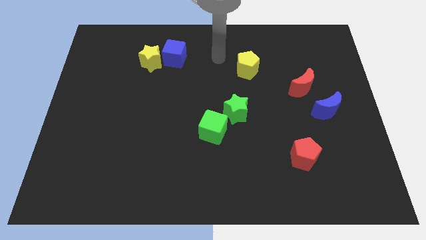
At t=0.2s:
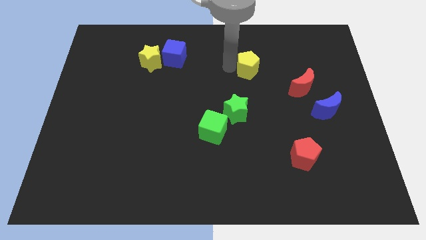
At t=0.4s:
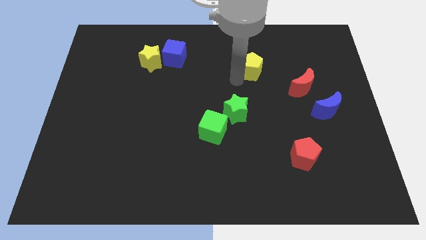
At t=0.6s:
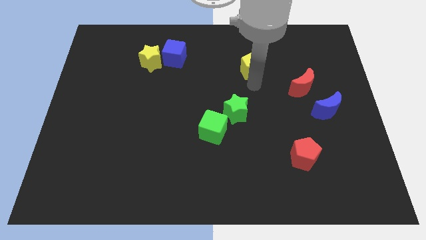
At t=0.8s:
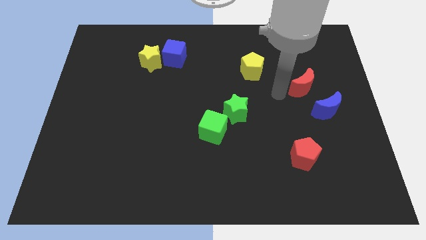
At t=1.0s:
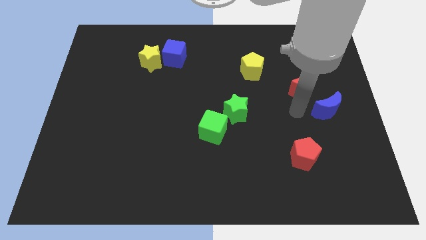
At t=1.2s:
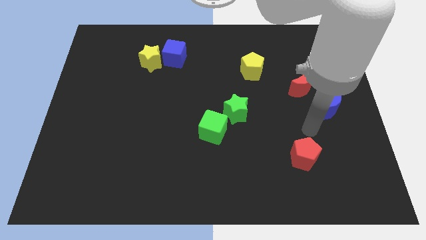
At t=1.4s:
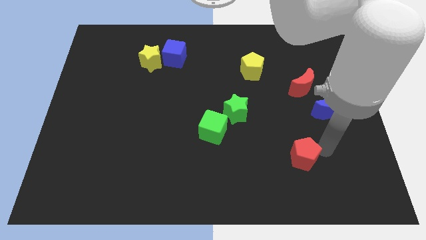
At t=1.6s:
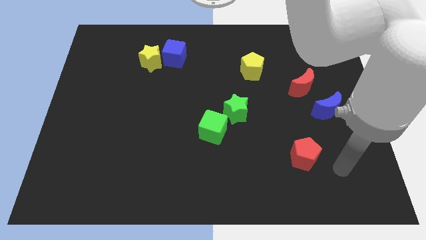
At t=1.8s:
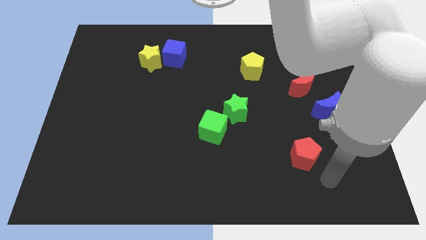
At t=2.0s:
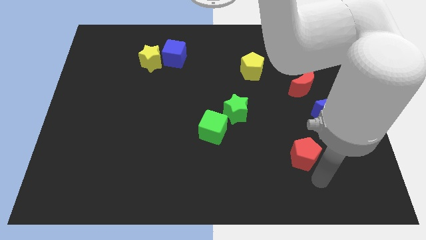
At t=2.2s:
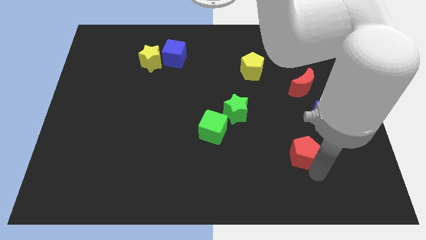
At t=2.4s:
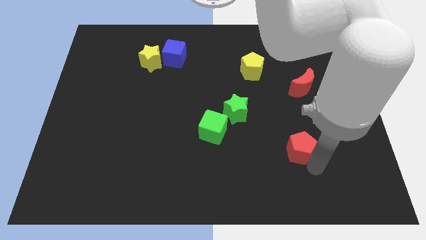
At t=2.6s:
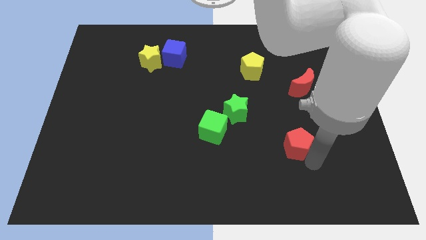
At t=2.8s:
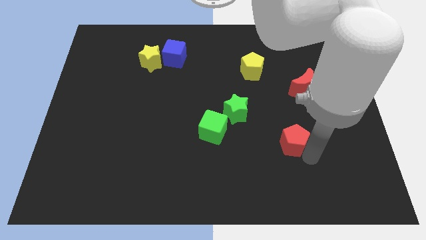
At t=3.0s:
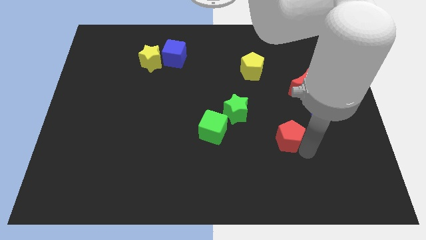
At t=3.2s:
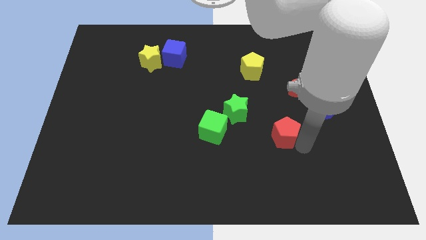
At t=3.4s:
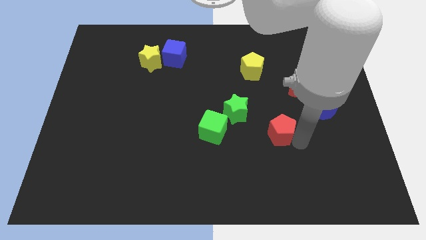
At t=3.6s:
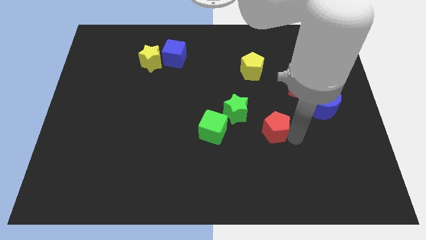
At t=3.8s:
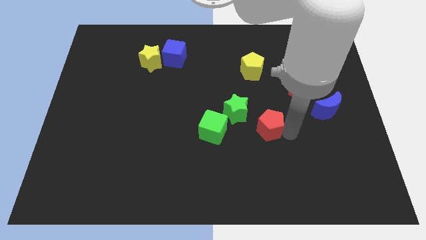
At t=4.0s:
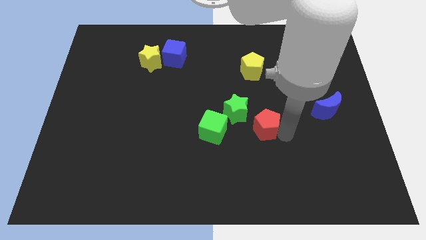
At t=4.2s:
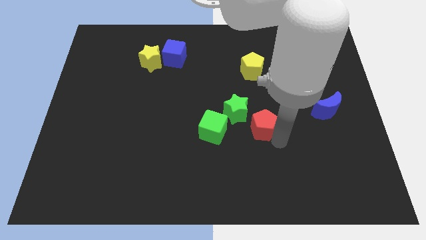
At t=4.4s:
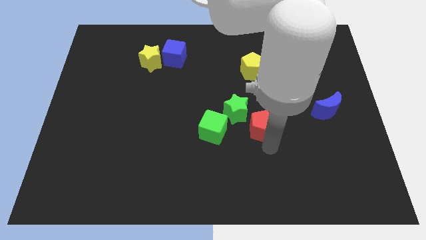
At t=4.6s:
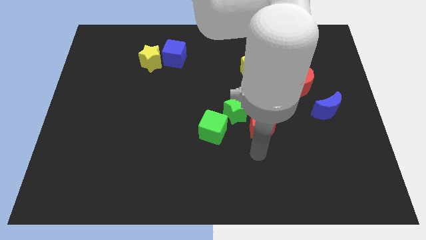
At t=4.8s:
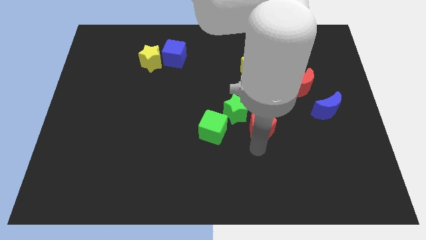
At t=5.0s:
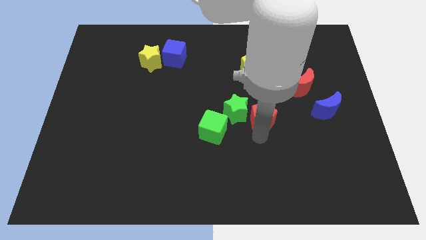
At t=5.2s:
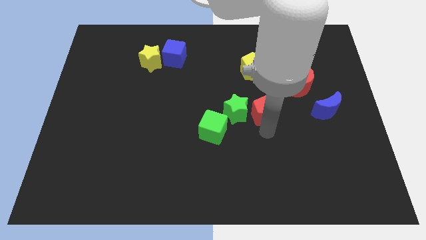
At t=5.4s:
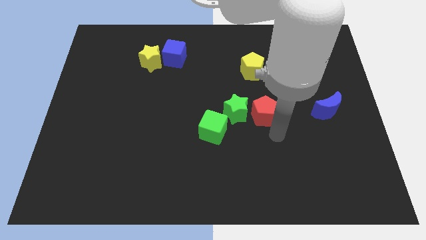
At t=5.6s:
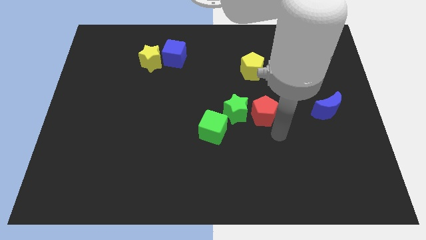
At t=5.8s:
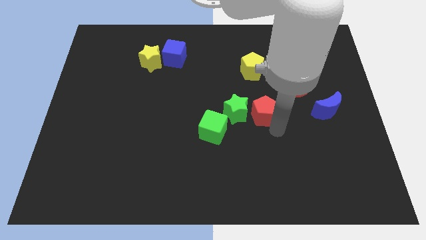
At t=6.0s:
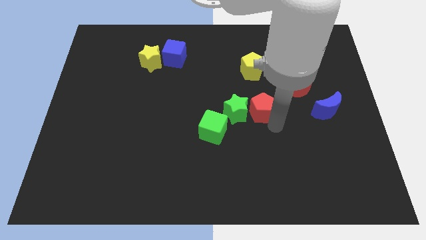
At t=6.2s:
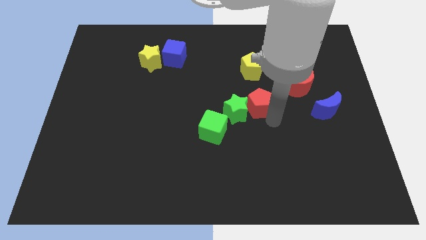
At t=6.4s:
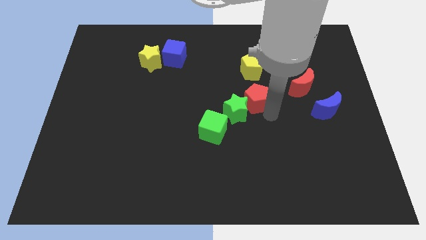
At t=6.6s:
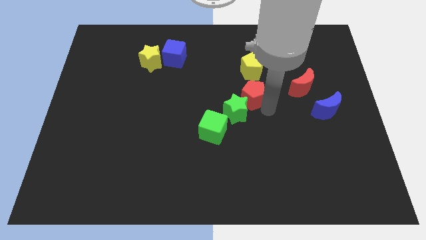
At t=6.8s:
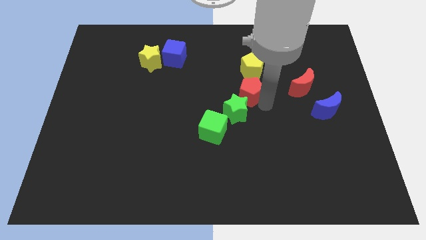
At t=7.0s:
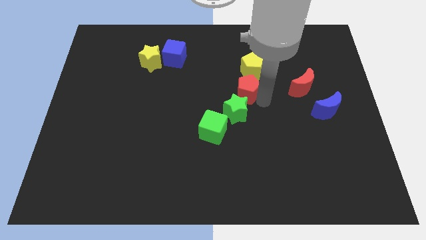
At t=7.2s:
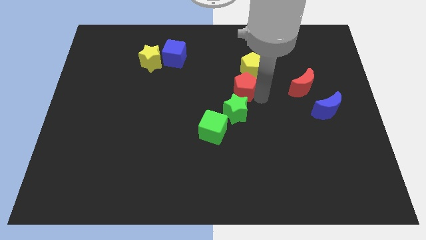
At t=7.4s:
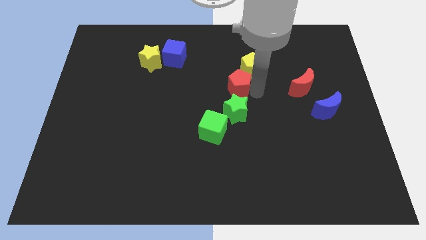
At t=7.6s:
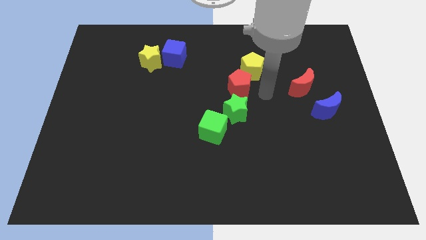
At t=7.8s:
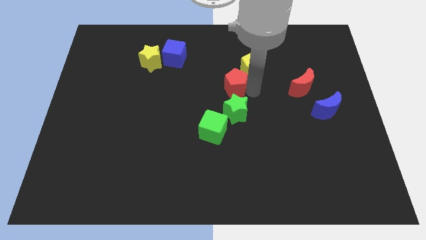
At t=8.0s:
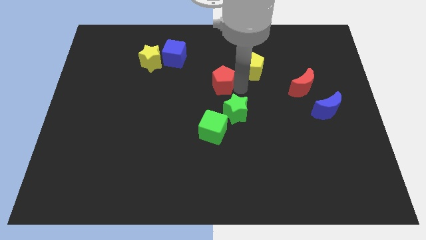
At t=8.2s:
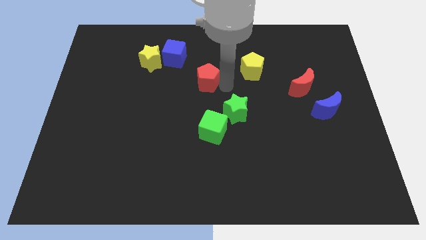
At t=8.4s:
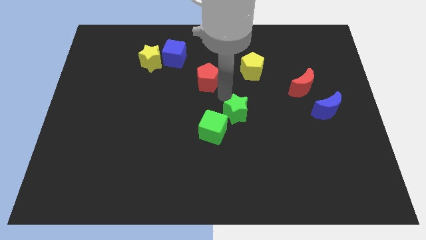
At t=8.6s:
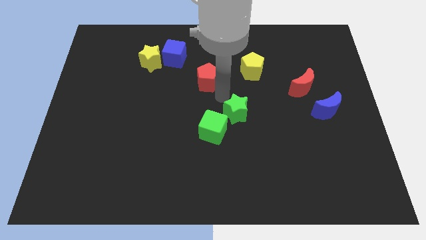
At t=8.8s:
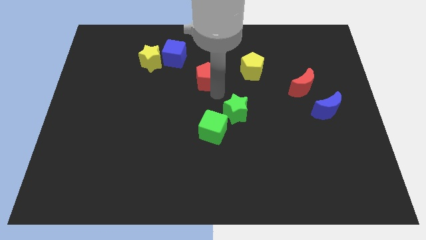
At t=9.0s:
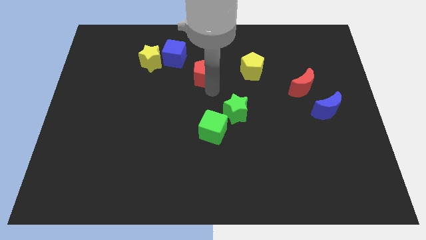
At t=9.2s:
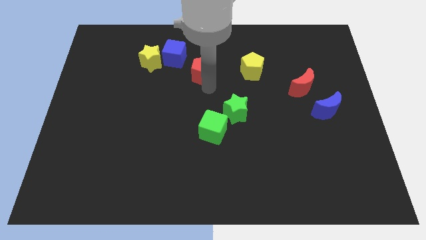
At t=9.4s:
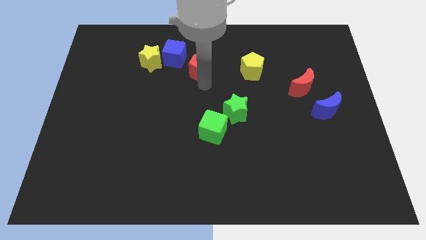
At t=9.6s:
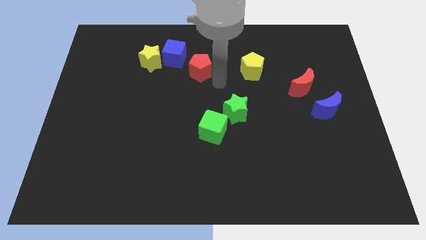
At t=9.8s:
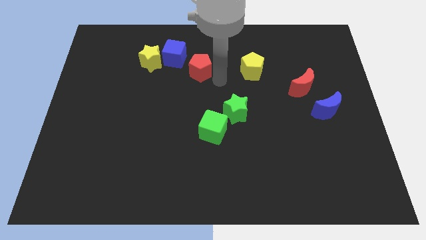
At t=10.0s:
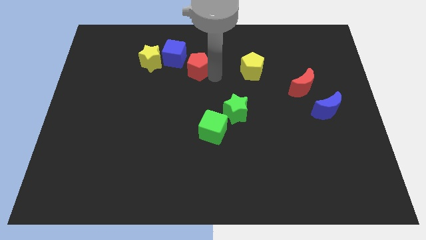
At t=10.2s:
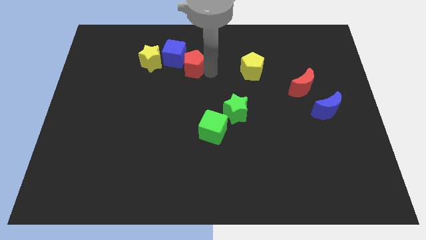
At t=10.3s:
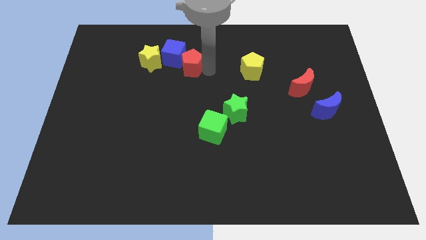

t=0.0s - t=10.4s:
put the red pentagon towards the blue cube

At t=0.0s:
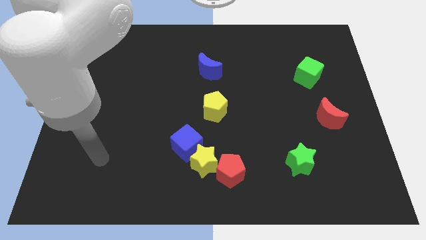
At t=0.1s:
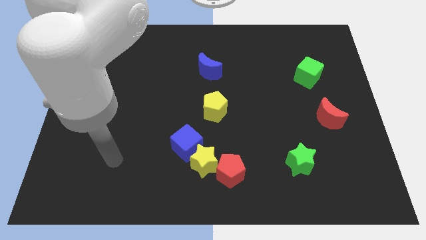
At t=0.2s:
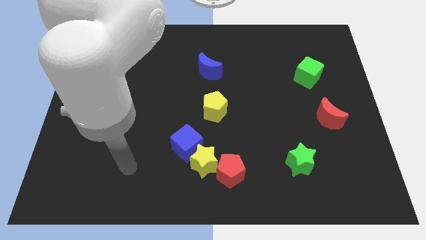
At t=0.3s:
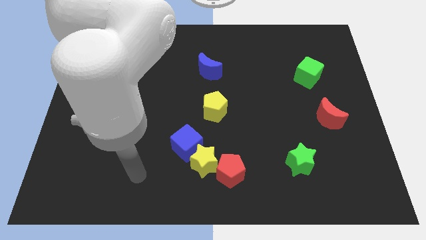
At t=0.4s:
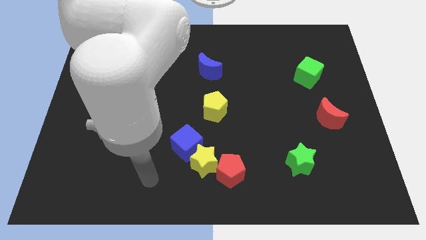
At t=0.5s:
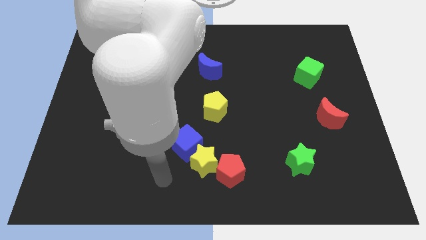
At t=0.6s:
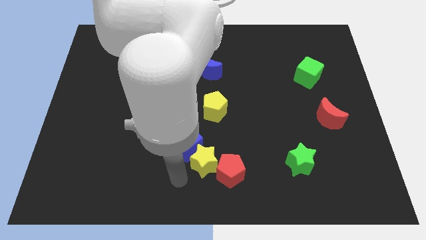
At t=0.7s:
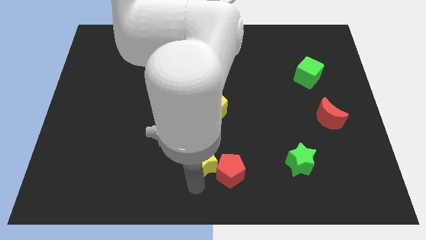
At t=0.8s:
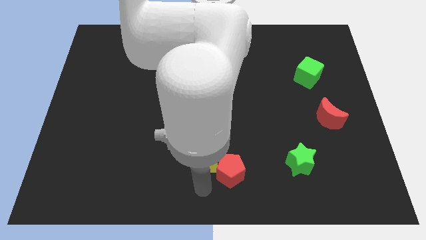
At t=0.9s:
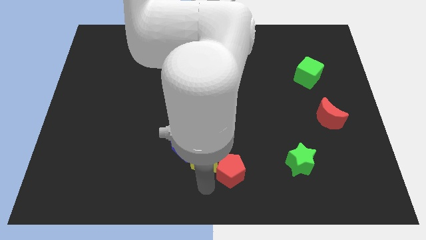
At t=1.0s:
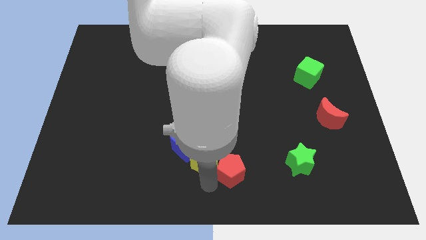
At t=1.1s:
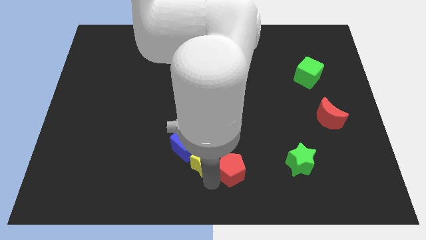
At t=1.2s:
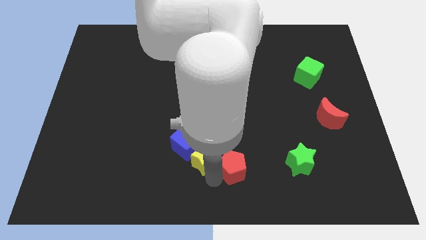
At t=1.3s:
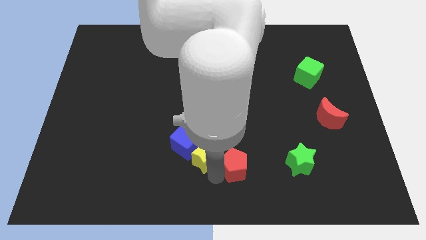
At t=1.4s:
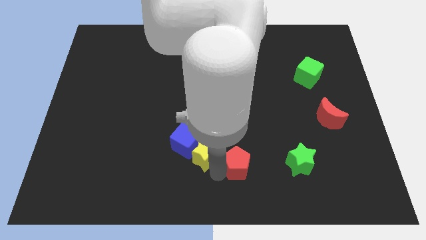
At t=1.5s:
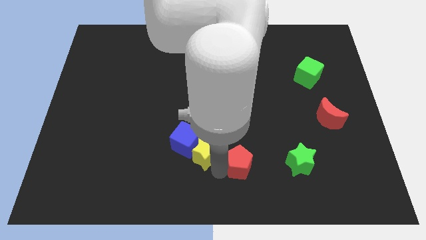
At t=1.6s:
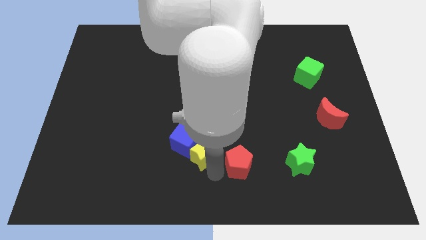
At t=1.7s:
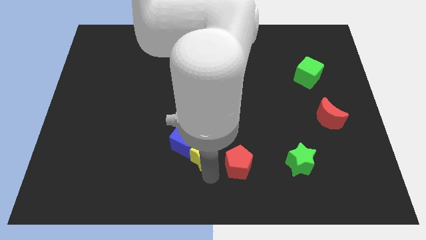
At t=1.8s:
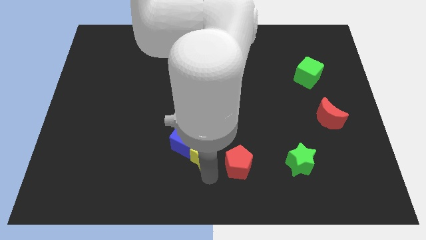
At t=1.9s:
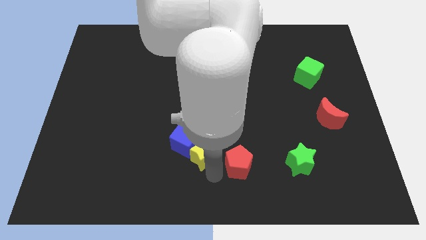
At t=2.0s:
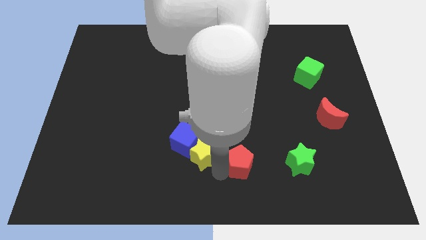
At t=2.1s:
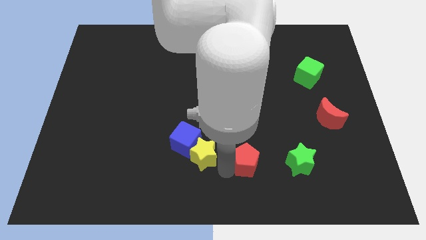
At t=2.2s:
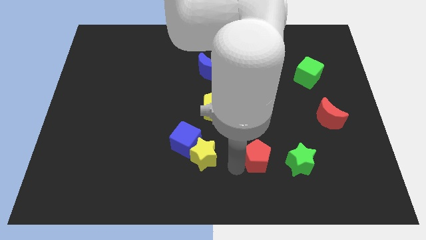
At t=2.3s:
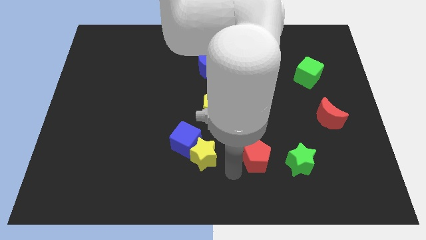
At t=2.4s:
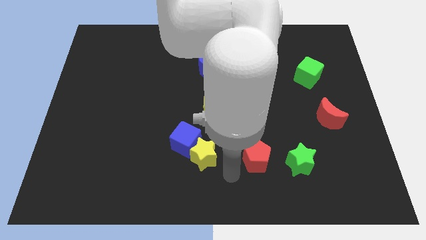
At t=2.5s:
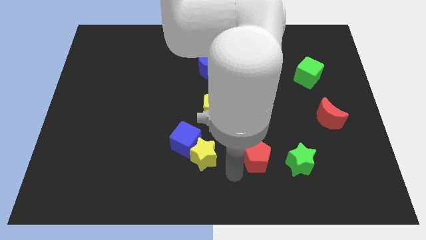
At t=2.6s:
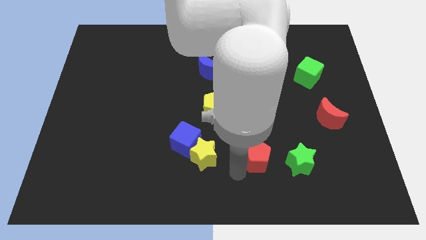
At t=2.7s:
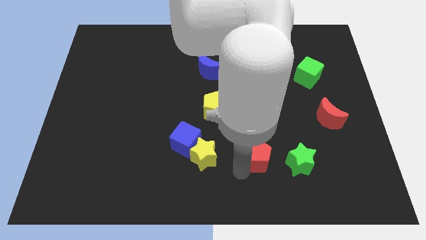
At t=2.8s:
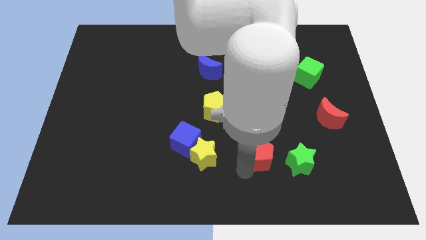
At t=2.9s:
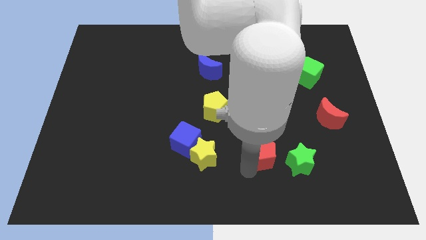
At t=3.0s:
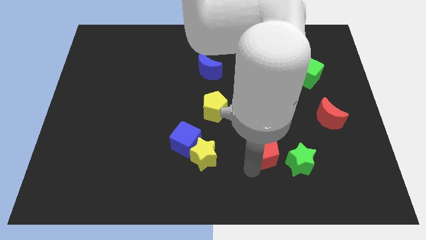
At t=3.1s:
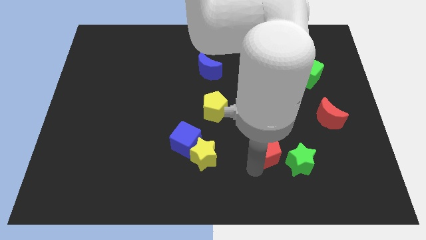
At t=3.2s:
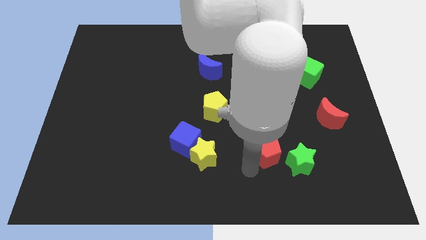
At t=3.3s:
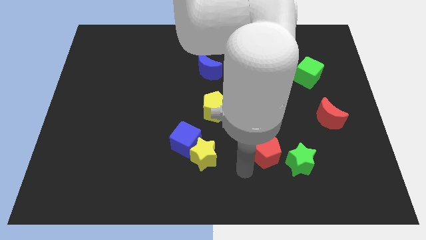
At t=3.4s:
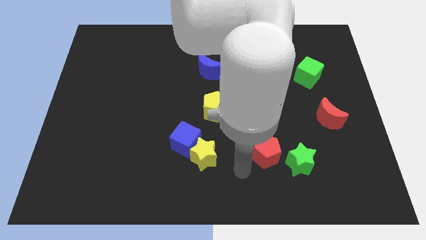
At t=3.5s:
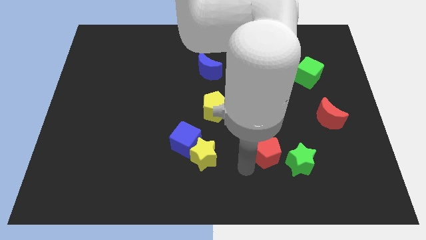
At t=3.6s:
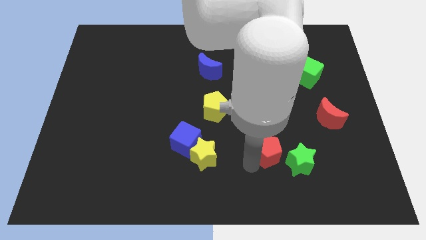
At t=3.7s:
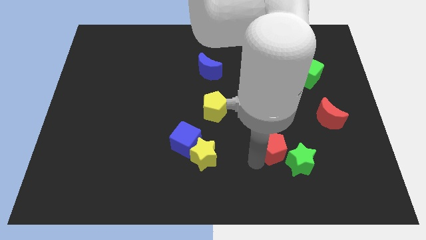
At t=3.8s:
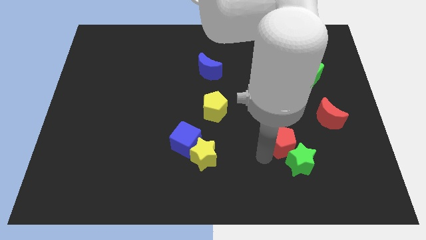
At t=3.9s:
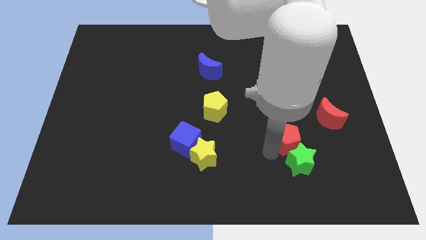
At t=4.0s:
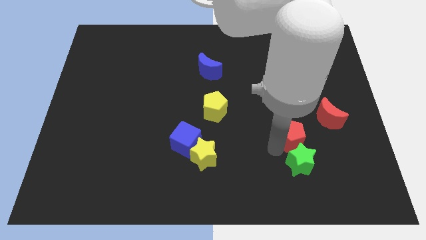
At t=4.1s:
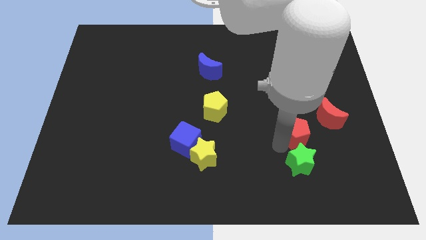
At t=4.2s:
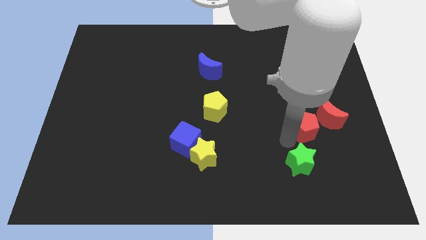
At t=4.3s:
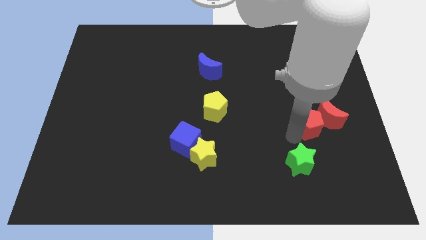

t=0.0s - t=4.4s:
push the red pentagon to the red moon
